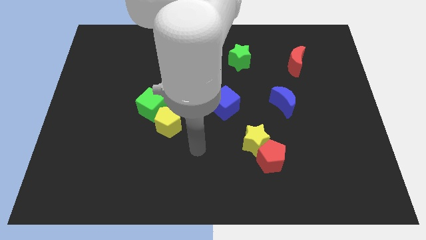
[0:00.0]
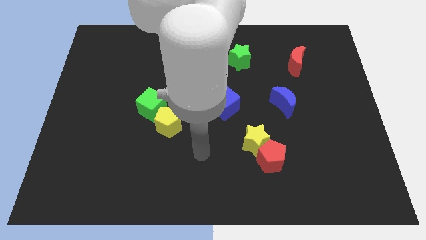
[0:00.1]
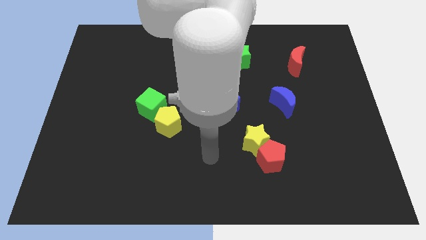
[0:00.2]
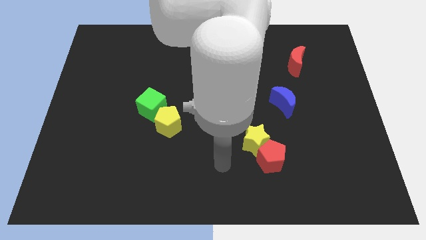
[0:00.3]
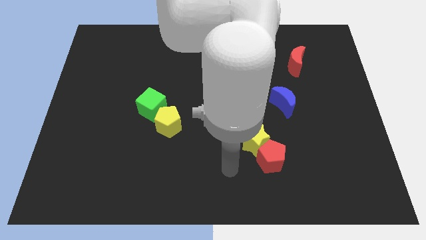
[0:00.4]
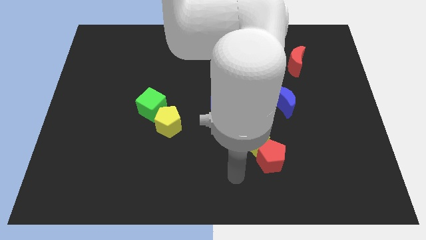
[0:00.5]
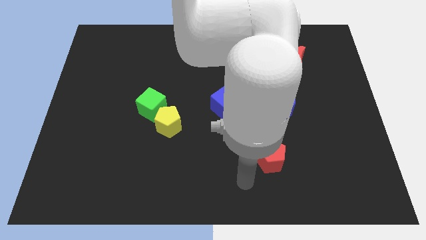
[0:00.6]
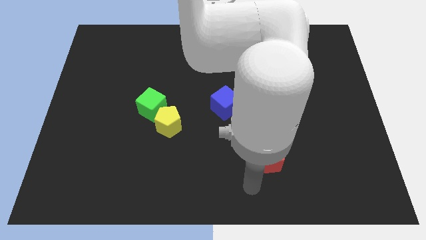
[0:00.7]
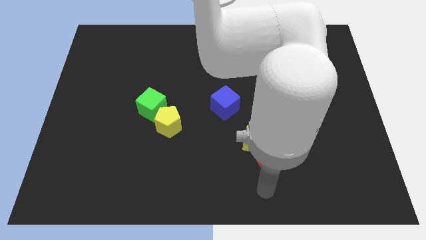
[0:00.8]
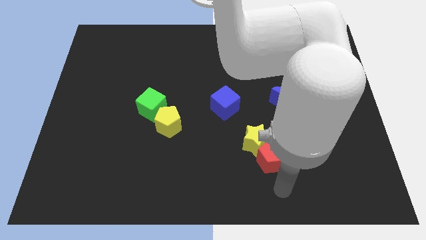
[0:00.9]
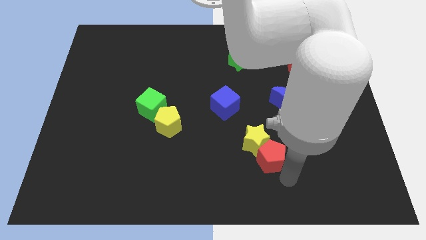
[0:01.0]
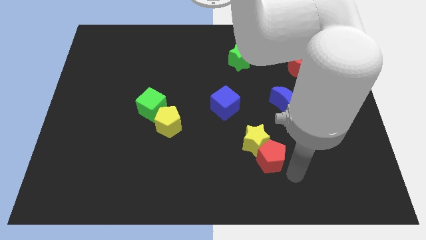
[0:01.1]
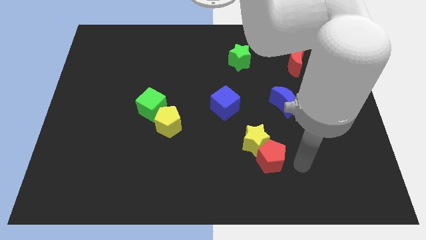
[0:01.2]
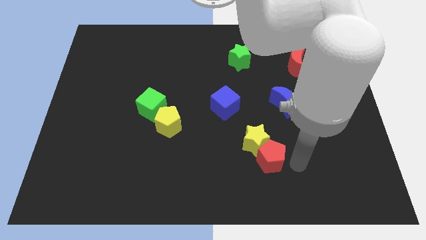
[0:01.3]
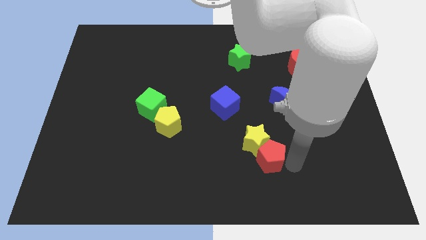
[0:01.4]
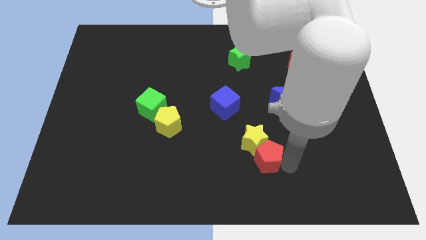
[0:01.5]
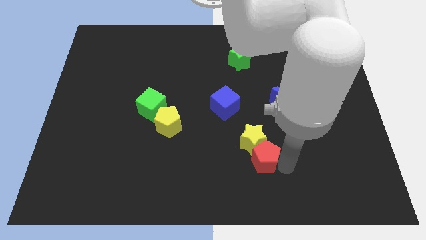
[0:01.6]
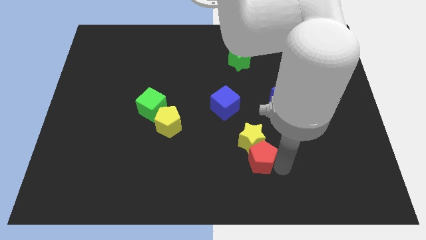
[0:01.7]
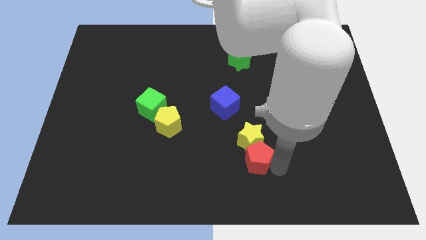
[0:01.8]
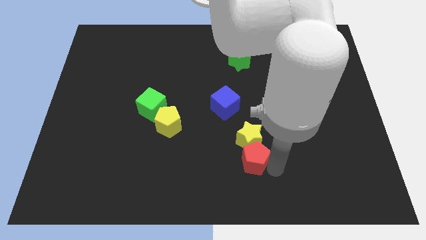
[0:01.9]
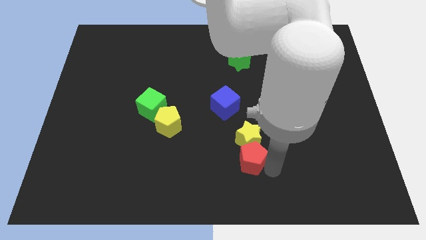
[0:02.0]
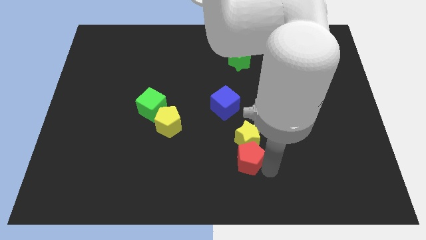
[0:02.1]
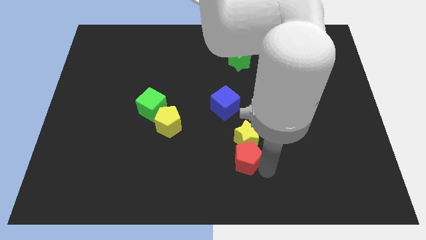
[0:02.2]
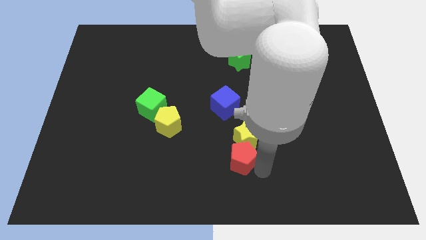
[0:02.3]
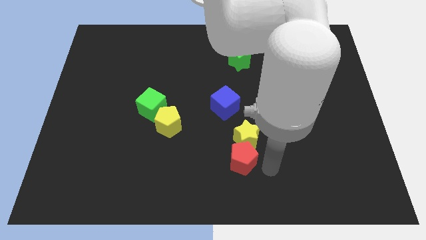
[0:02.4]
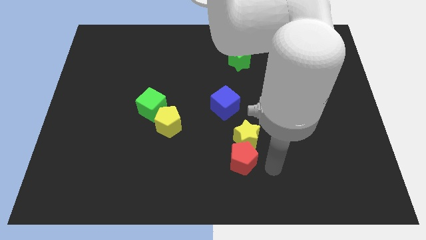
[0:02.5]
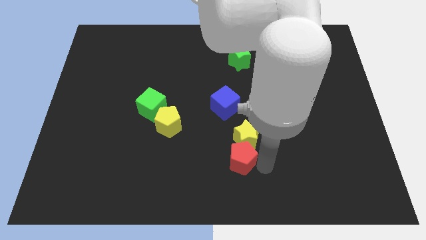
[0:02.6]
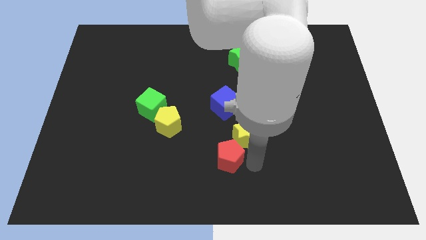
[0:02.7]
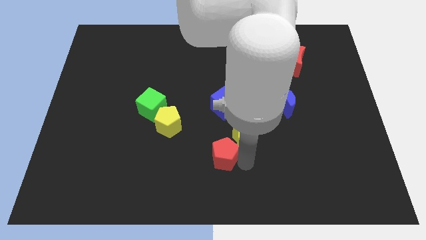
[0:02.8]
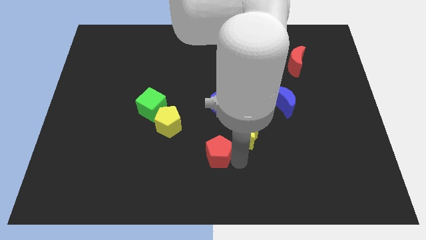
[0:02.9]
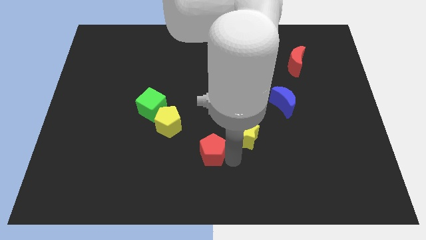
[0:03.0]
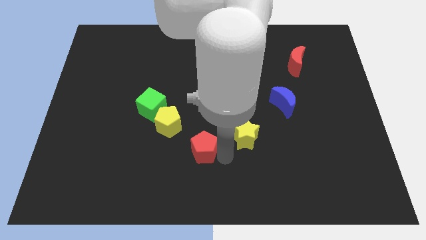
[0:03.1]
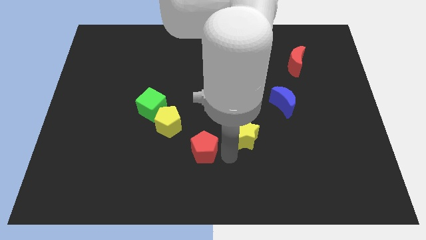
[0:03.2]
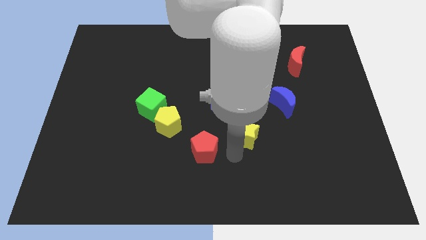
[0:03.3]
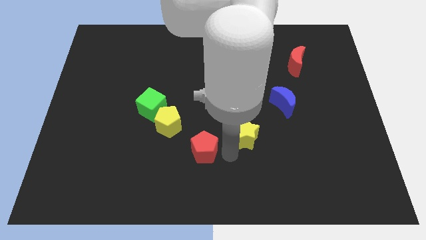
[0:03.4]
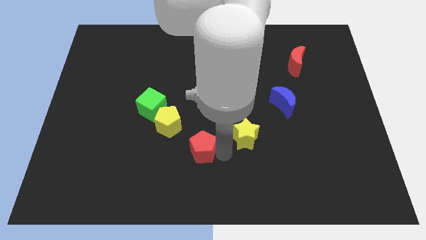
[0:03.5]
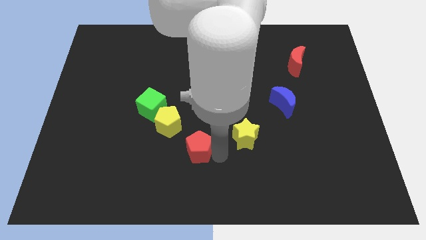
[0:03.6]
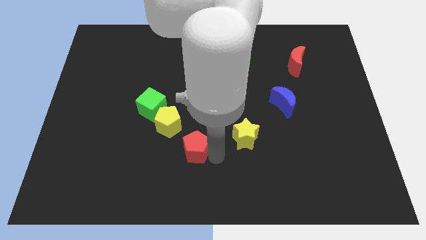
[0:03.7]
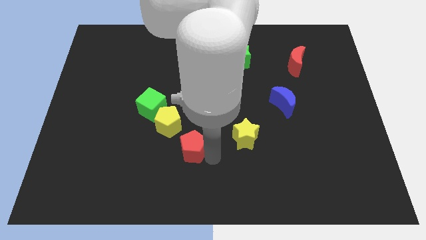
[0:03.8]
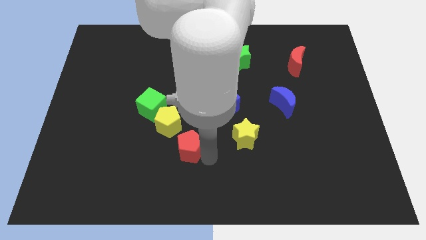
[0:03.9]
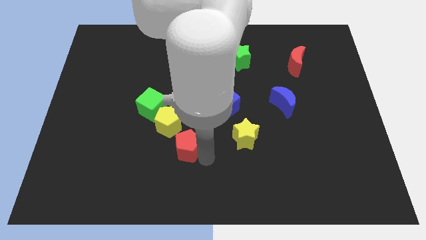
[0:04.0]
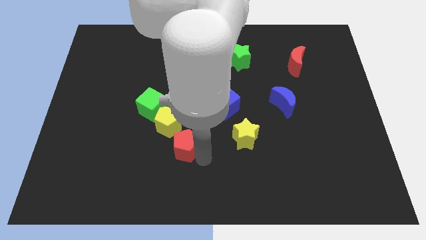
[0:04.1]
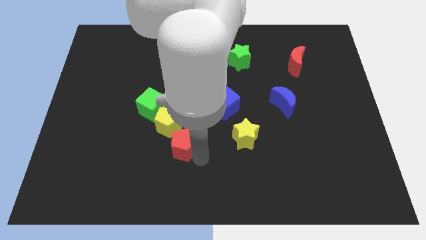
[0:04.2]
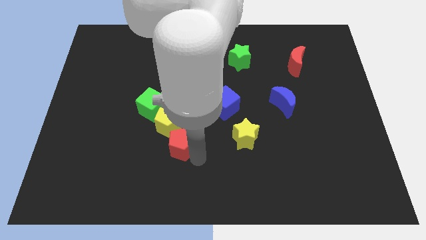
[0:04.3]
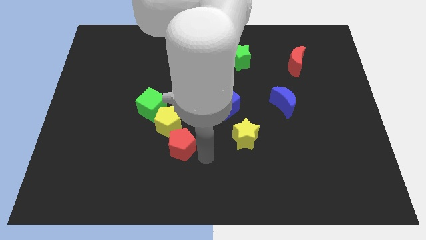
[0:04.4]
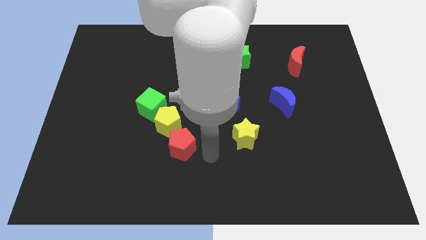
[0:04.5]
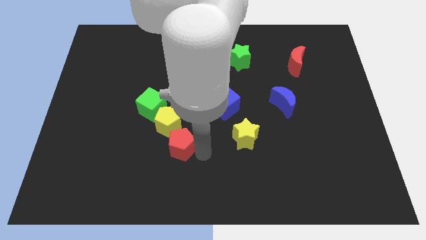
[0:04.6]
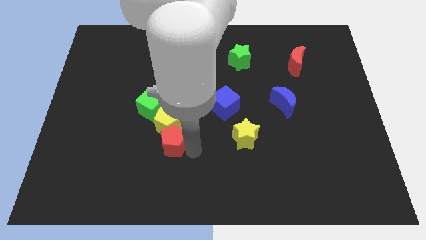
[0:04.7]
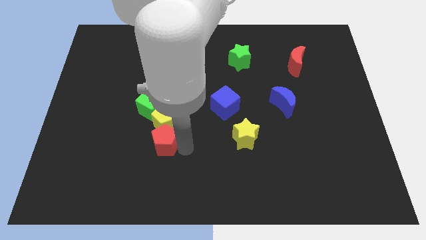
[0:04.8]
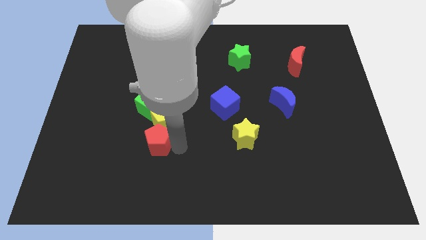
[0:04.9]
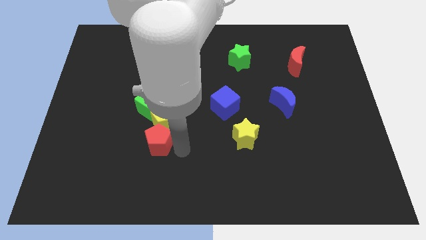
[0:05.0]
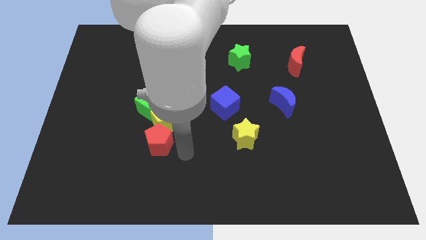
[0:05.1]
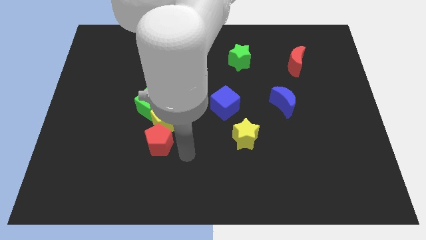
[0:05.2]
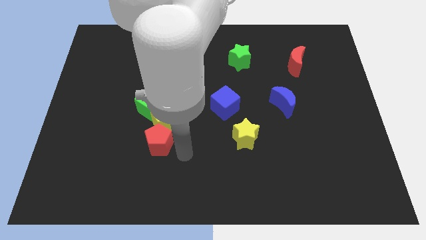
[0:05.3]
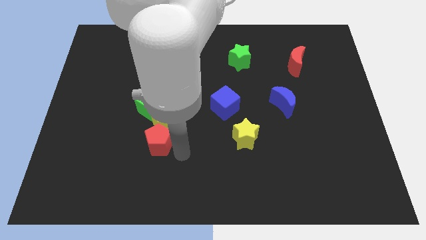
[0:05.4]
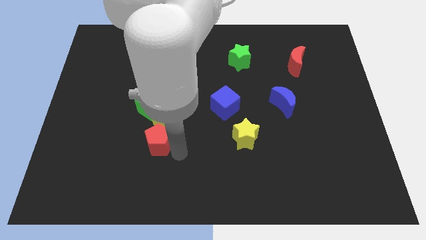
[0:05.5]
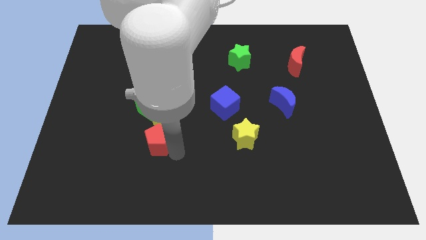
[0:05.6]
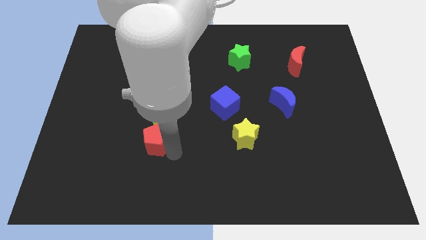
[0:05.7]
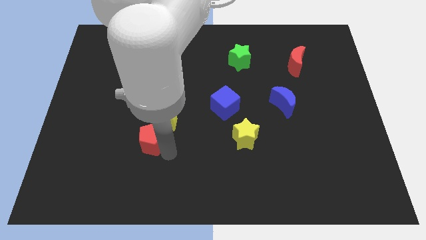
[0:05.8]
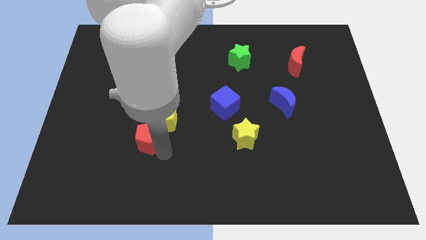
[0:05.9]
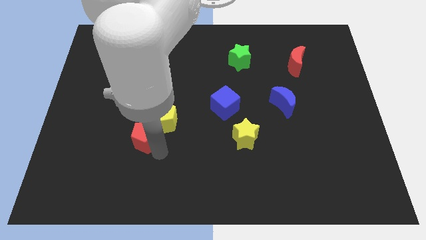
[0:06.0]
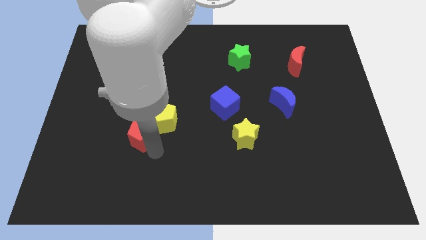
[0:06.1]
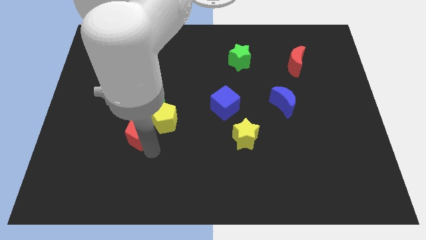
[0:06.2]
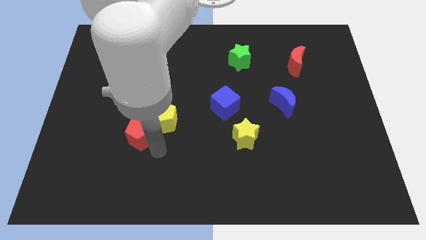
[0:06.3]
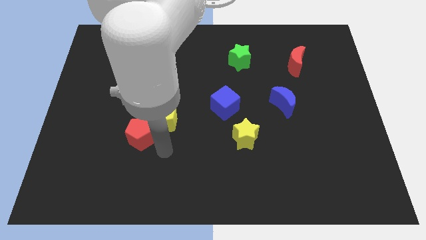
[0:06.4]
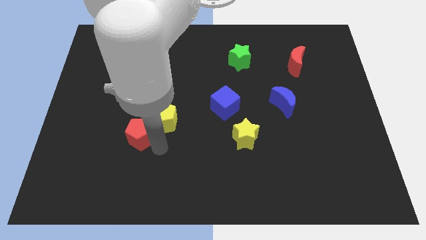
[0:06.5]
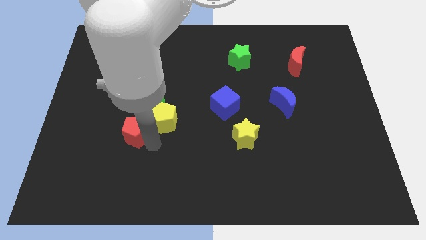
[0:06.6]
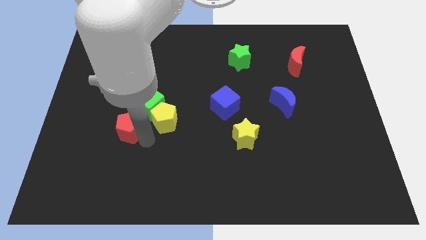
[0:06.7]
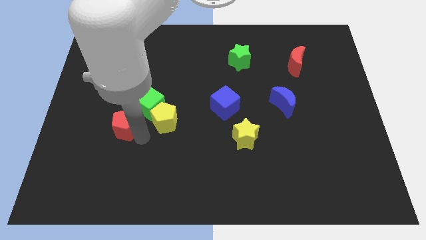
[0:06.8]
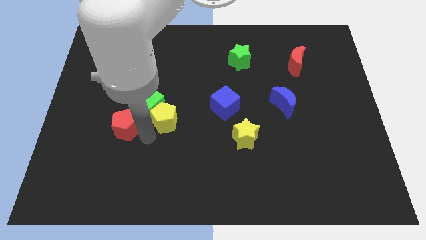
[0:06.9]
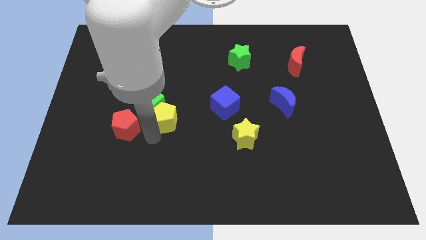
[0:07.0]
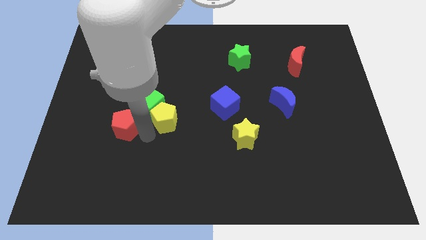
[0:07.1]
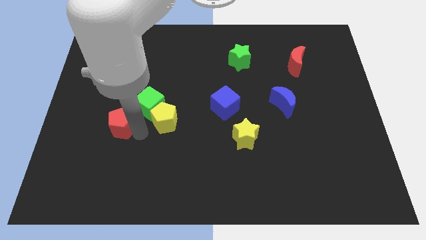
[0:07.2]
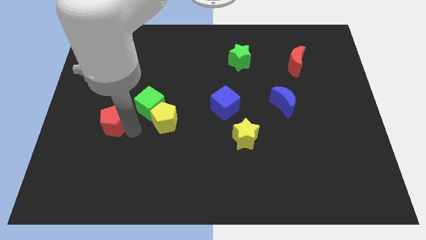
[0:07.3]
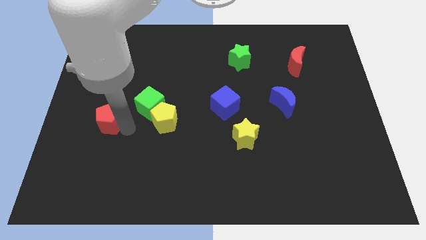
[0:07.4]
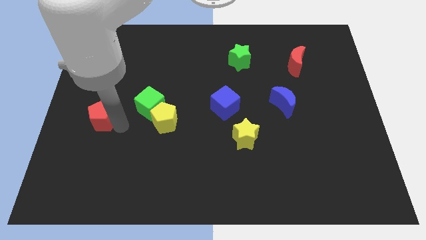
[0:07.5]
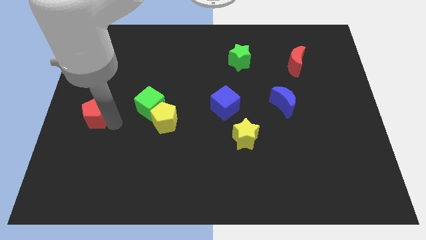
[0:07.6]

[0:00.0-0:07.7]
move the red pentagon to the left side
